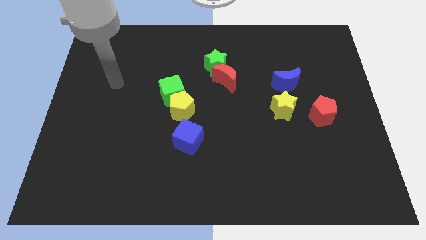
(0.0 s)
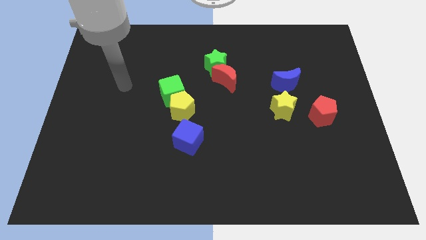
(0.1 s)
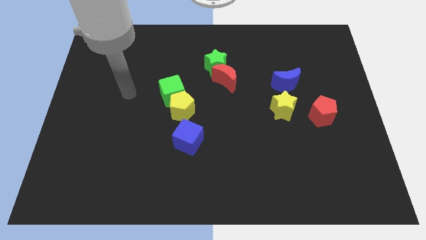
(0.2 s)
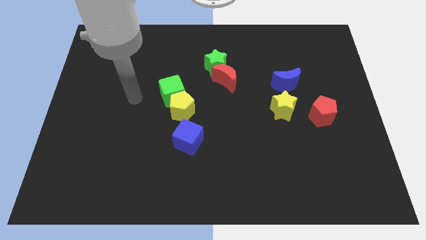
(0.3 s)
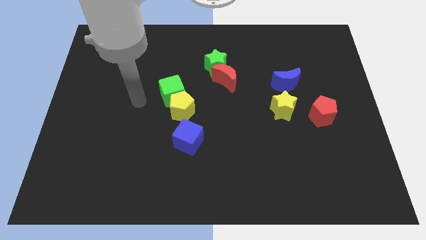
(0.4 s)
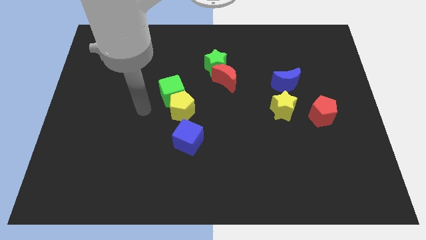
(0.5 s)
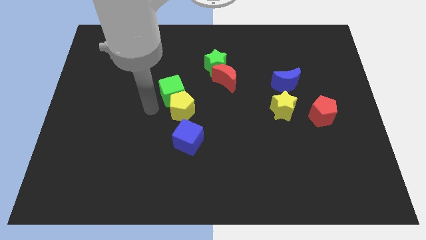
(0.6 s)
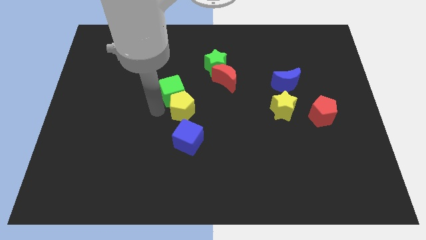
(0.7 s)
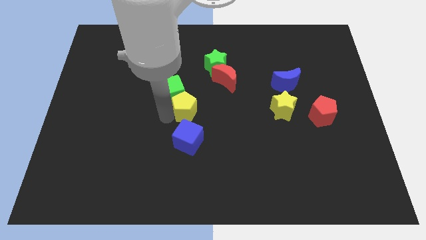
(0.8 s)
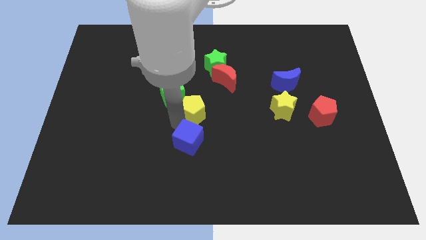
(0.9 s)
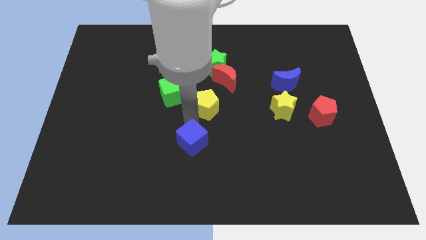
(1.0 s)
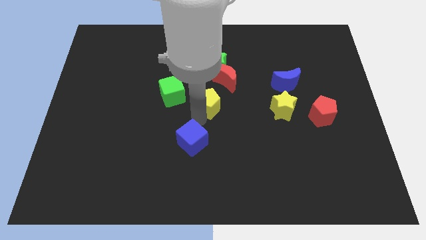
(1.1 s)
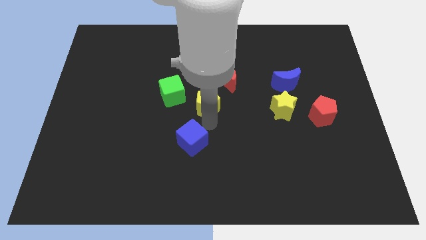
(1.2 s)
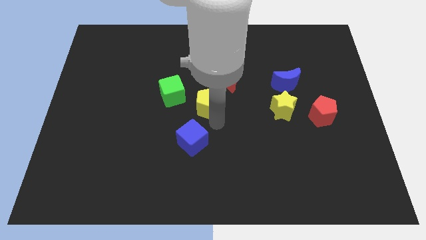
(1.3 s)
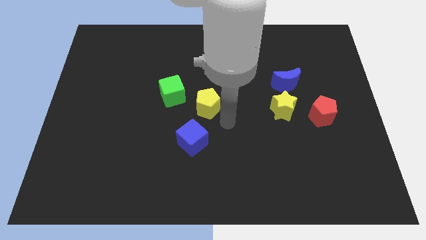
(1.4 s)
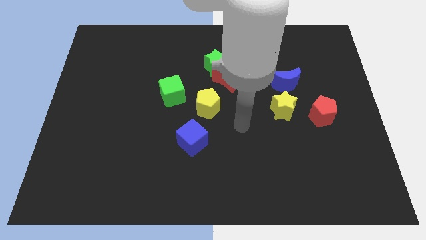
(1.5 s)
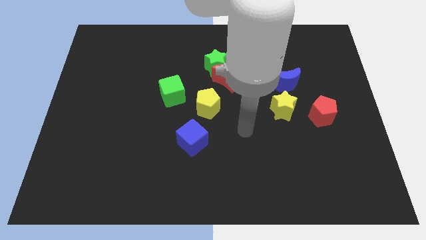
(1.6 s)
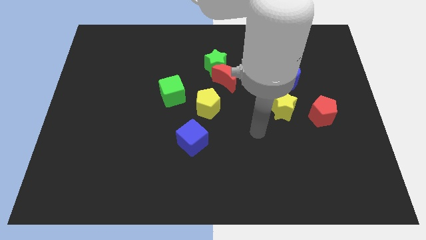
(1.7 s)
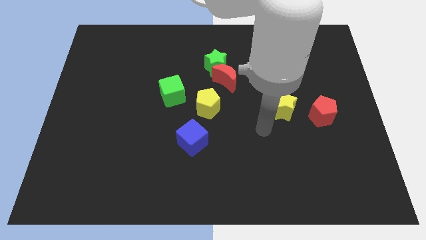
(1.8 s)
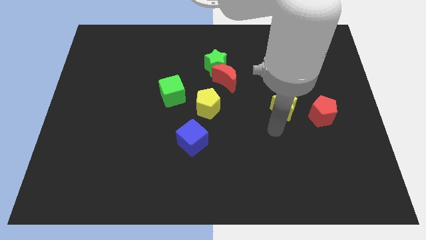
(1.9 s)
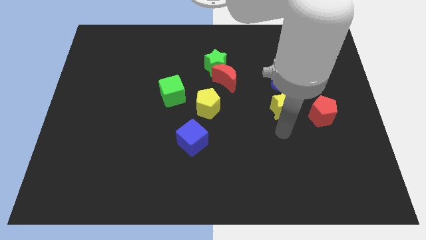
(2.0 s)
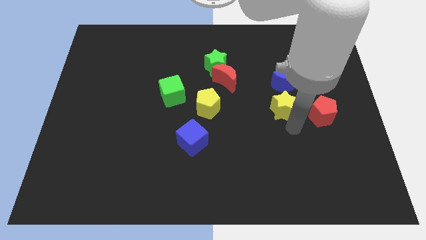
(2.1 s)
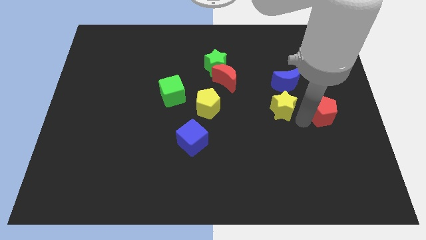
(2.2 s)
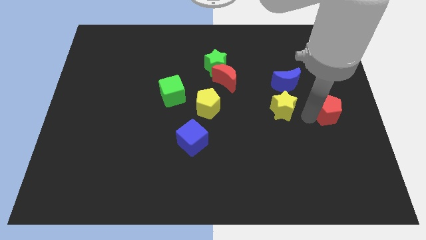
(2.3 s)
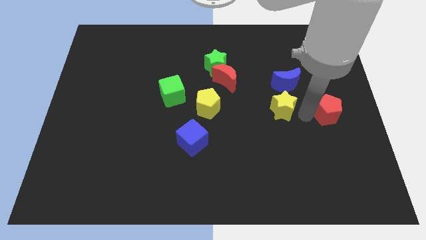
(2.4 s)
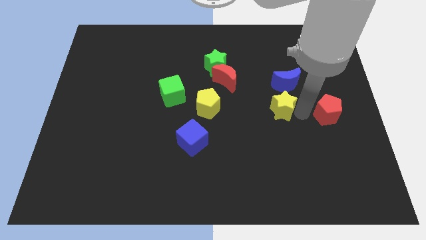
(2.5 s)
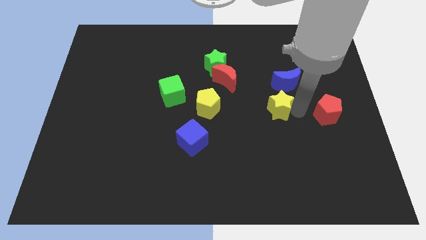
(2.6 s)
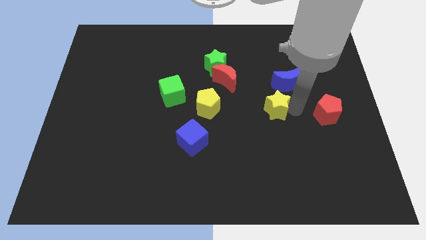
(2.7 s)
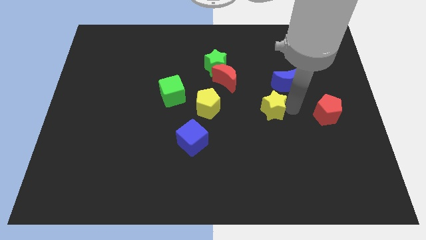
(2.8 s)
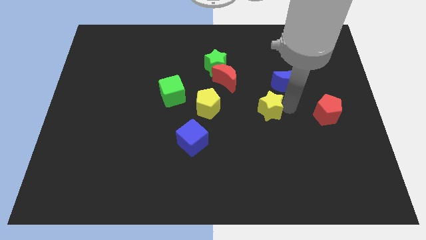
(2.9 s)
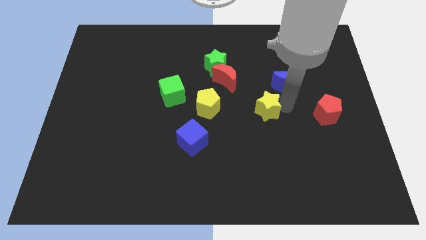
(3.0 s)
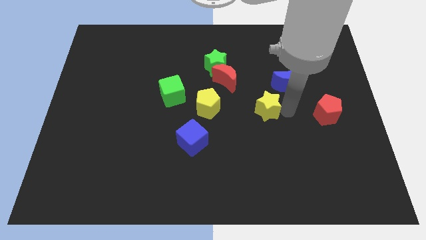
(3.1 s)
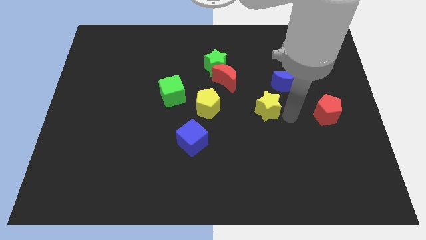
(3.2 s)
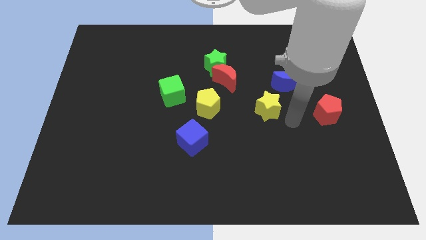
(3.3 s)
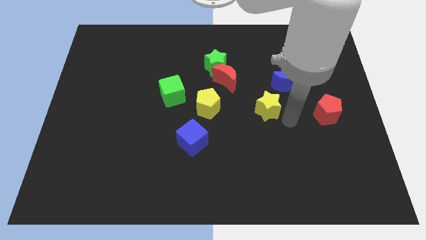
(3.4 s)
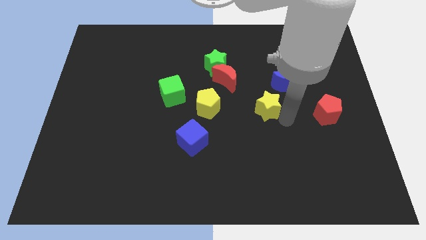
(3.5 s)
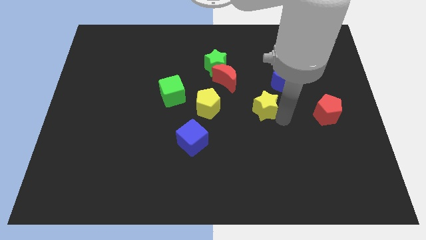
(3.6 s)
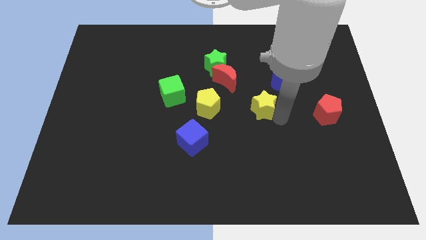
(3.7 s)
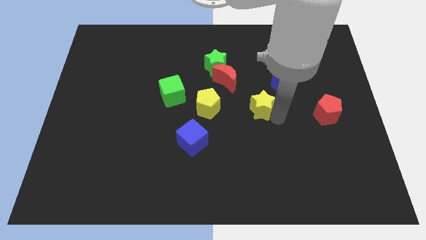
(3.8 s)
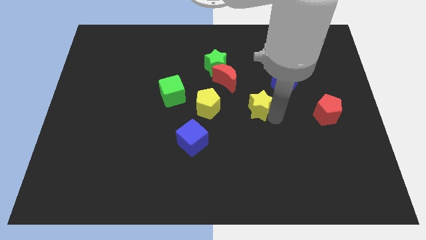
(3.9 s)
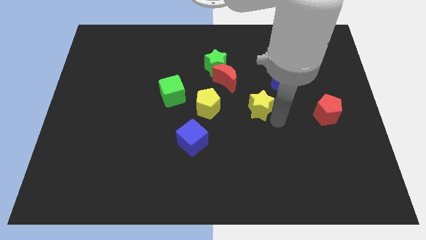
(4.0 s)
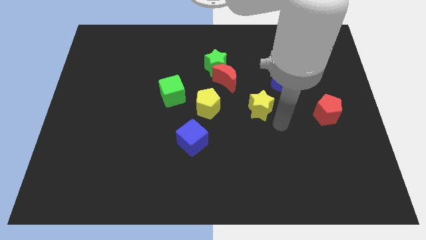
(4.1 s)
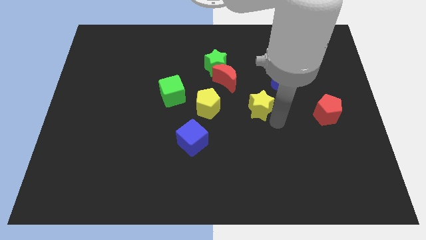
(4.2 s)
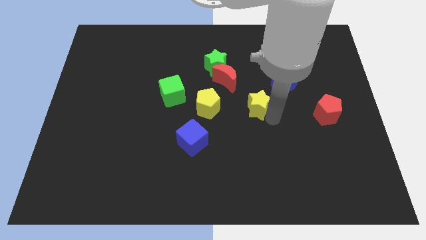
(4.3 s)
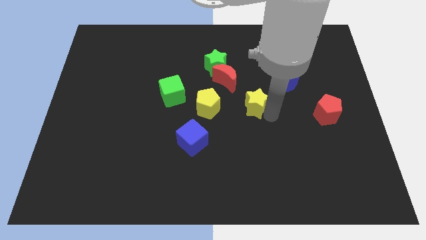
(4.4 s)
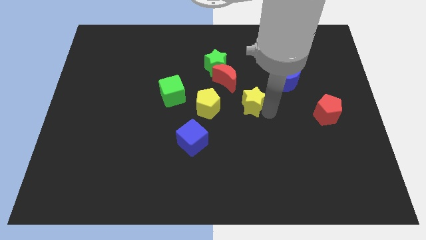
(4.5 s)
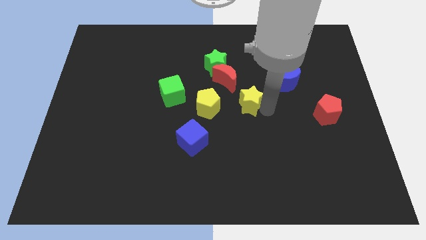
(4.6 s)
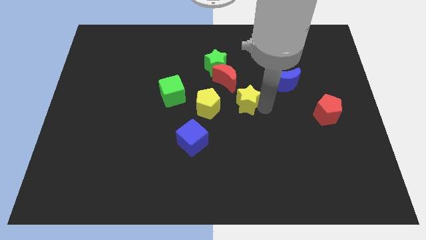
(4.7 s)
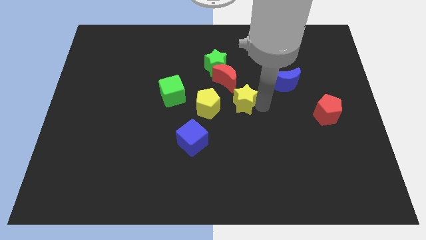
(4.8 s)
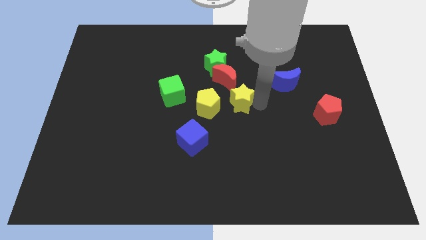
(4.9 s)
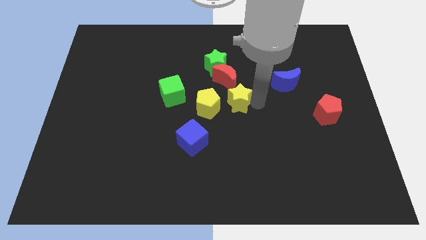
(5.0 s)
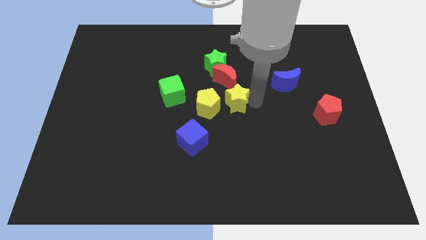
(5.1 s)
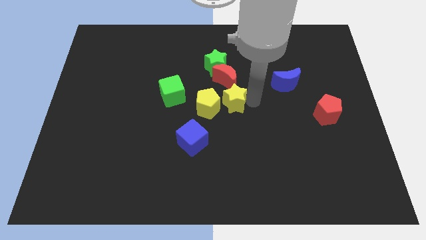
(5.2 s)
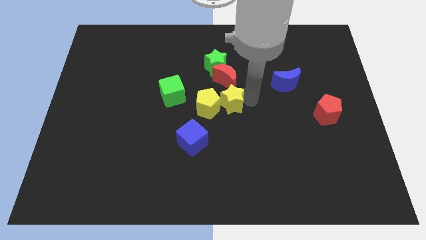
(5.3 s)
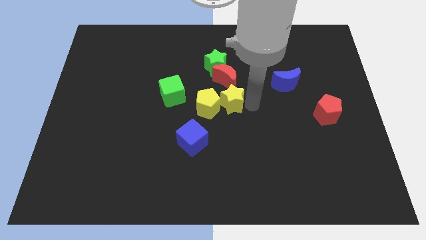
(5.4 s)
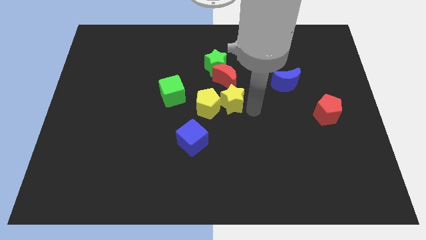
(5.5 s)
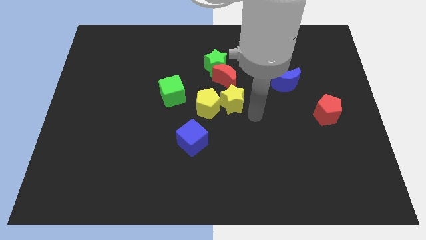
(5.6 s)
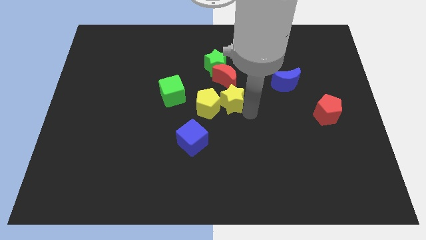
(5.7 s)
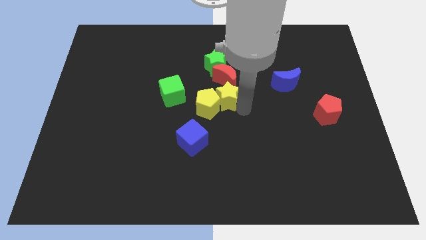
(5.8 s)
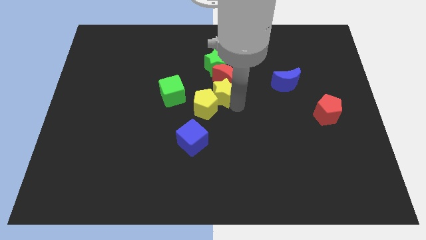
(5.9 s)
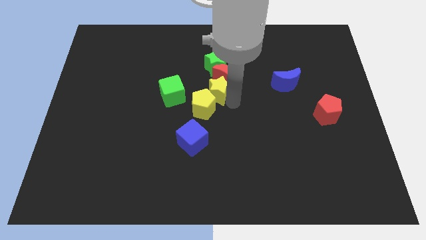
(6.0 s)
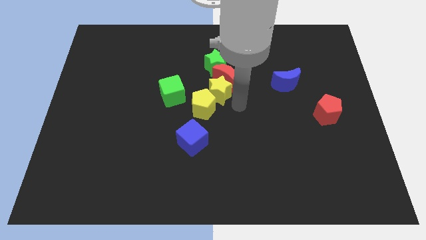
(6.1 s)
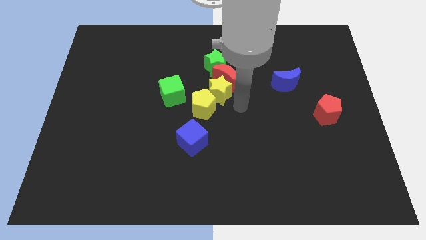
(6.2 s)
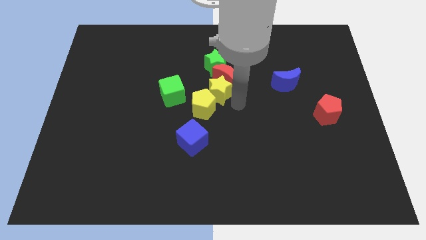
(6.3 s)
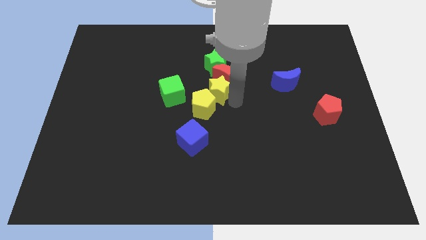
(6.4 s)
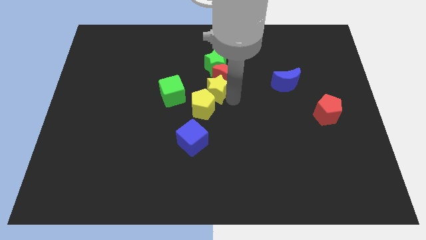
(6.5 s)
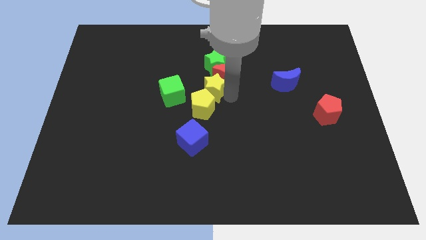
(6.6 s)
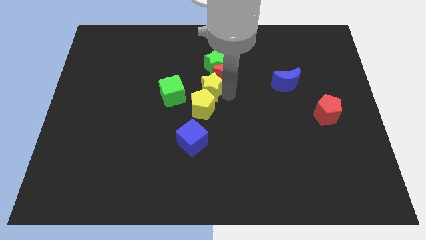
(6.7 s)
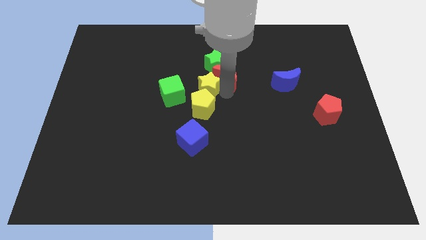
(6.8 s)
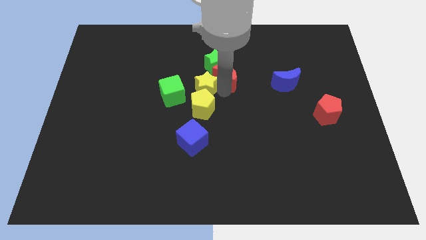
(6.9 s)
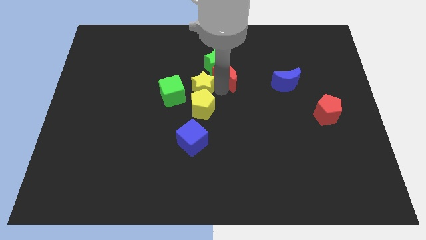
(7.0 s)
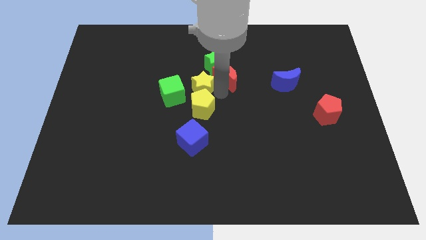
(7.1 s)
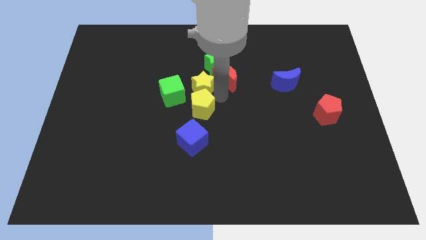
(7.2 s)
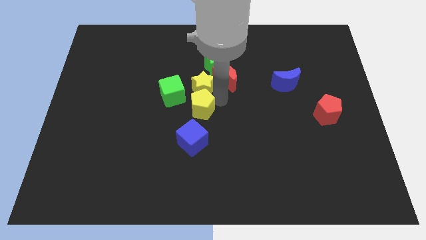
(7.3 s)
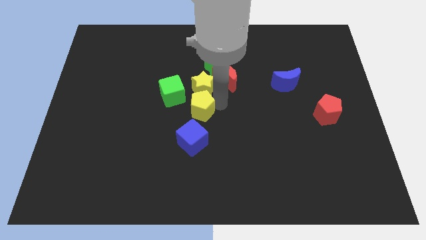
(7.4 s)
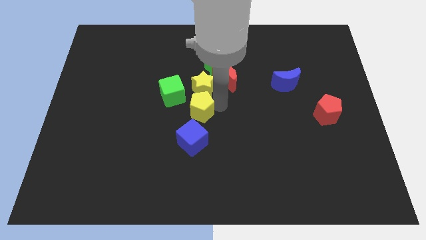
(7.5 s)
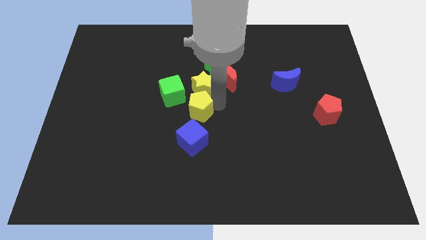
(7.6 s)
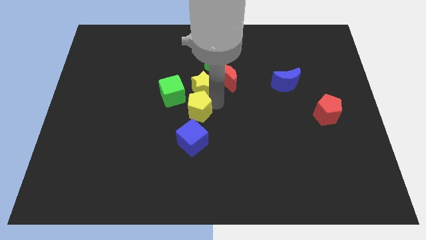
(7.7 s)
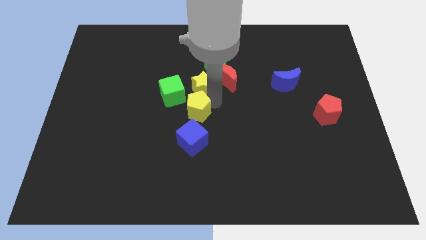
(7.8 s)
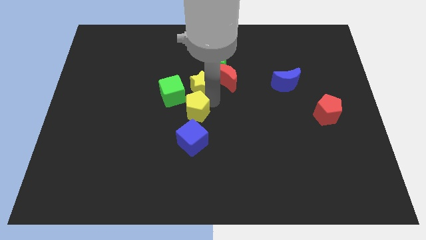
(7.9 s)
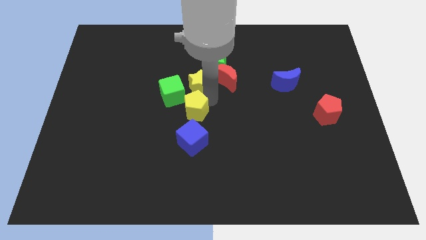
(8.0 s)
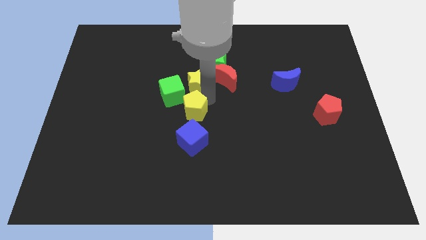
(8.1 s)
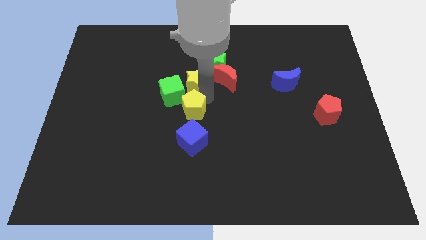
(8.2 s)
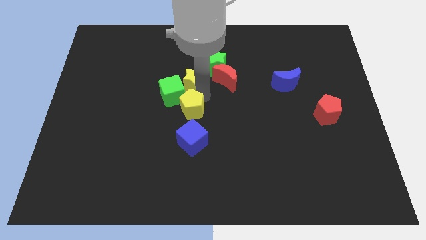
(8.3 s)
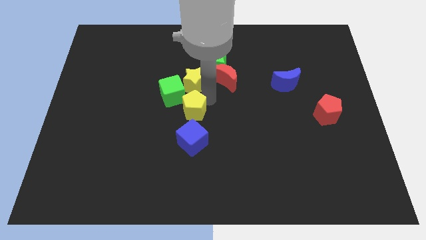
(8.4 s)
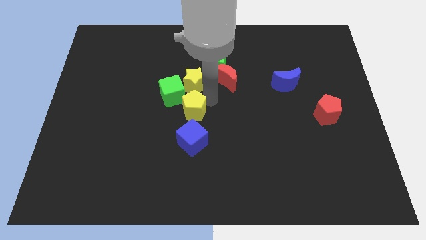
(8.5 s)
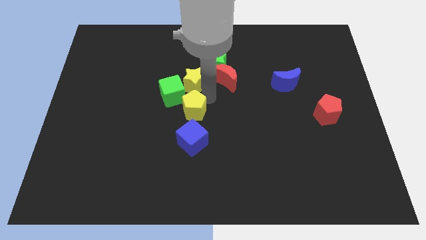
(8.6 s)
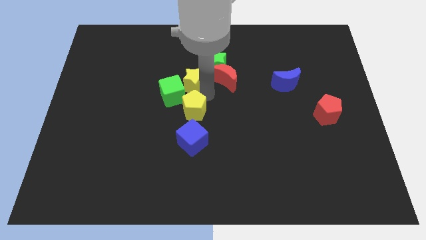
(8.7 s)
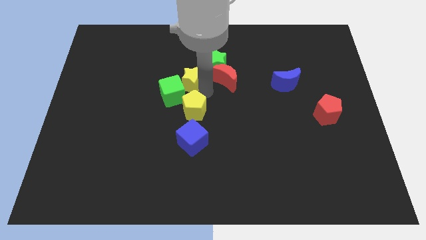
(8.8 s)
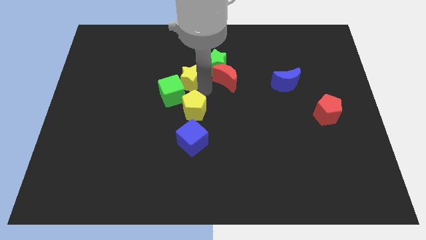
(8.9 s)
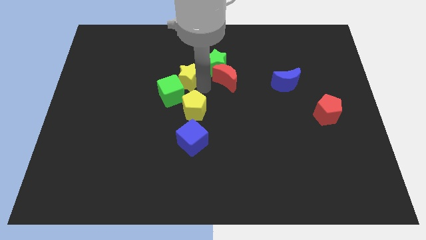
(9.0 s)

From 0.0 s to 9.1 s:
move the yellow star to the left side of the green star
